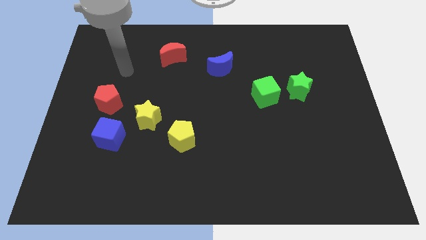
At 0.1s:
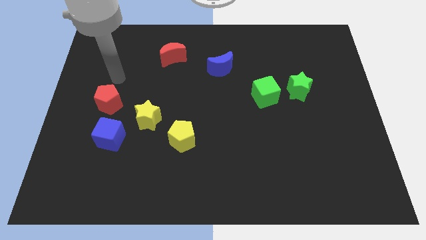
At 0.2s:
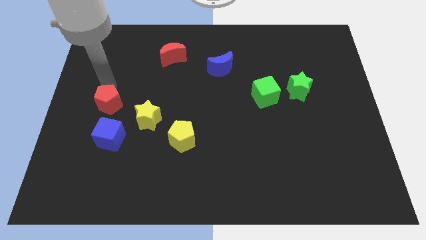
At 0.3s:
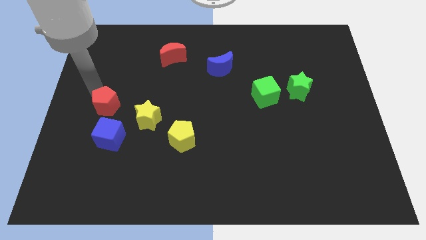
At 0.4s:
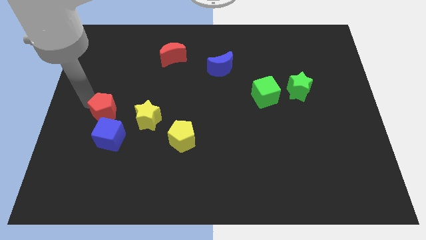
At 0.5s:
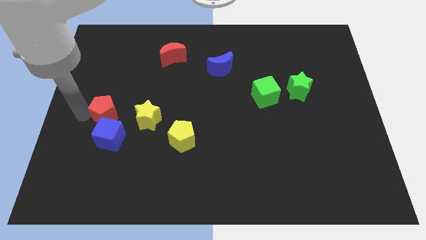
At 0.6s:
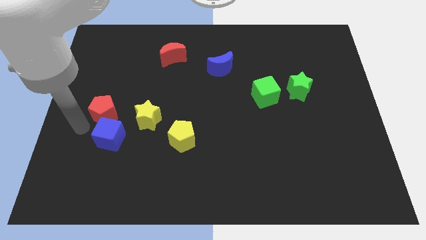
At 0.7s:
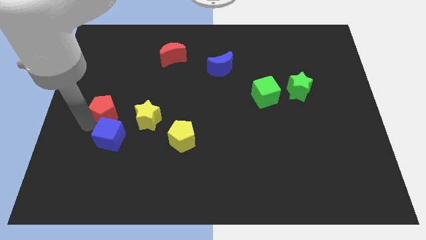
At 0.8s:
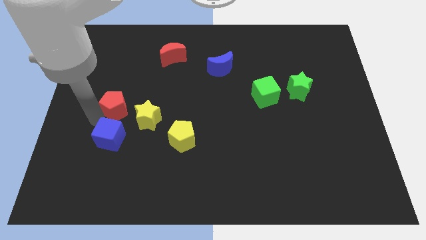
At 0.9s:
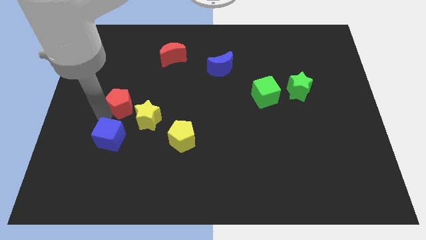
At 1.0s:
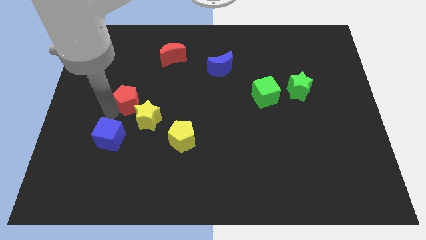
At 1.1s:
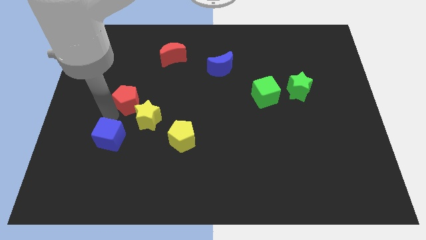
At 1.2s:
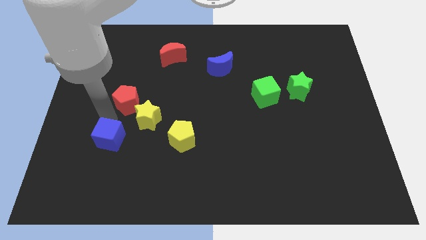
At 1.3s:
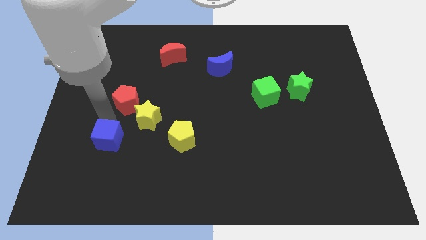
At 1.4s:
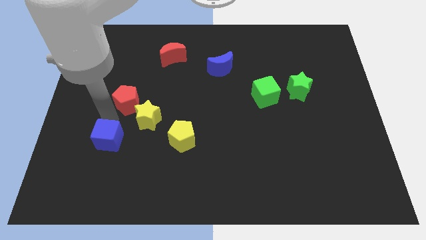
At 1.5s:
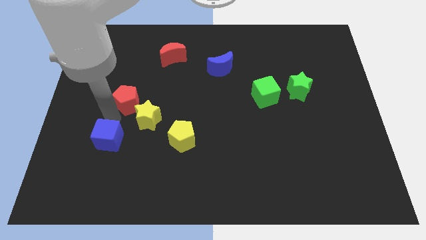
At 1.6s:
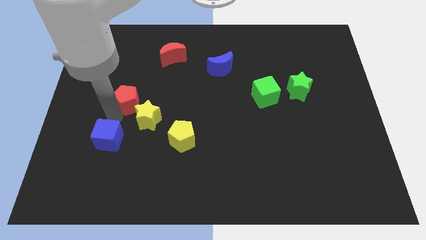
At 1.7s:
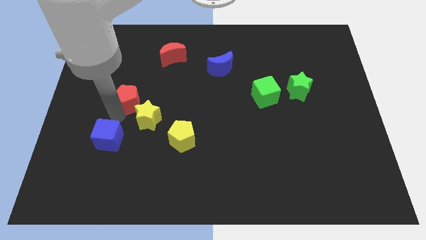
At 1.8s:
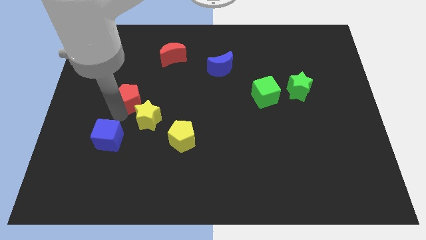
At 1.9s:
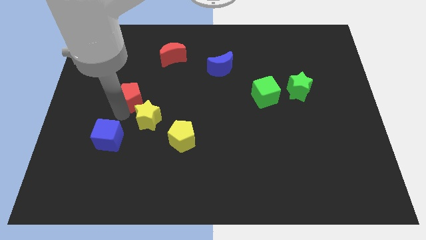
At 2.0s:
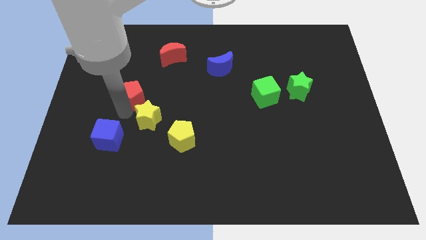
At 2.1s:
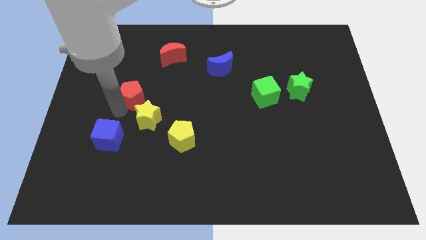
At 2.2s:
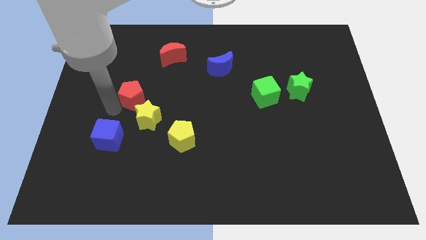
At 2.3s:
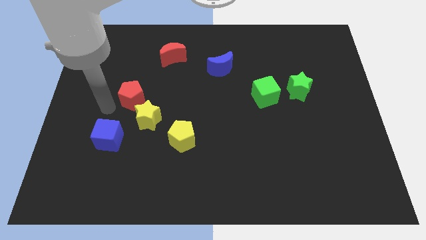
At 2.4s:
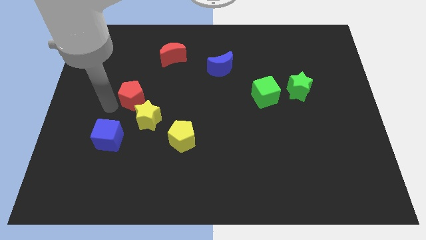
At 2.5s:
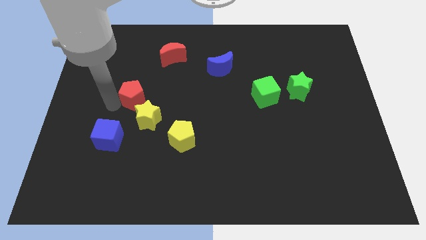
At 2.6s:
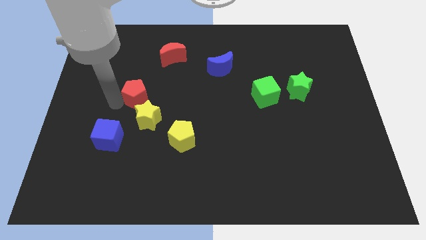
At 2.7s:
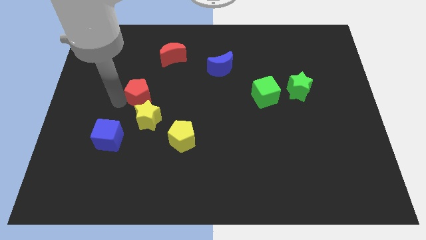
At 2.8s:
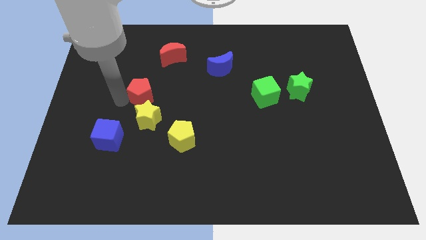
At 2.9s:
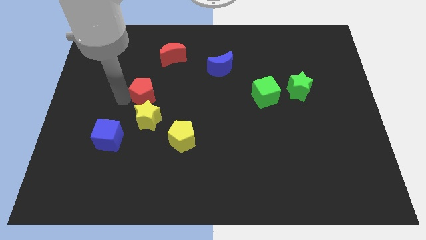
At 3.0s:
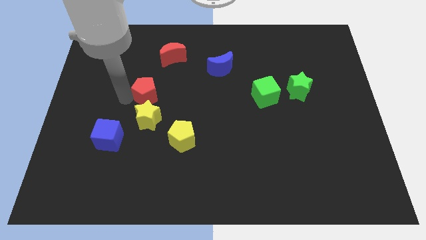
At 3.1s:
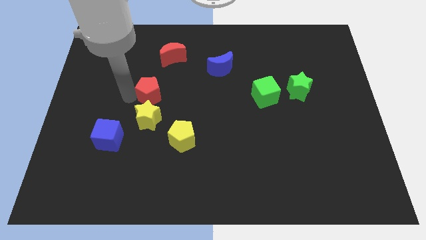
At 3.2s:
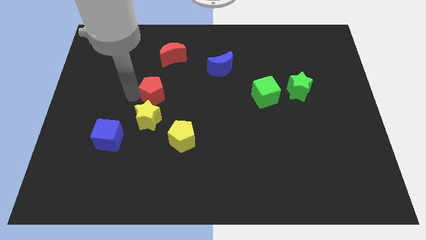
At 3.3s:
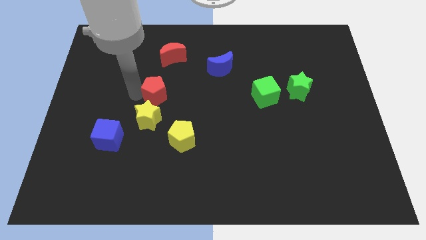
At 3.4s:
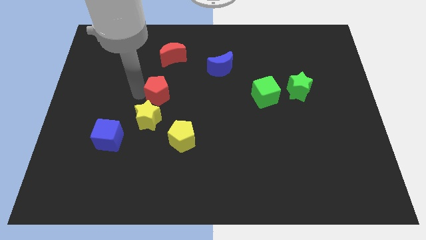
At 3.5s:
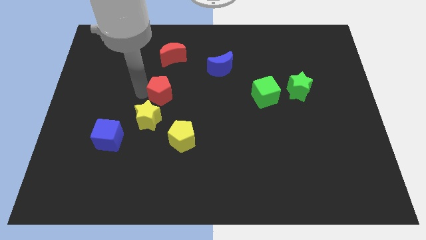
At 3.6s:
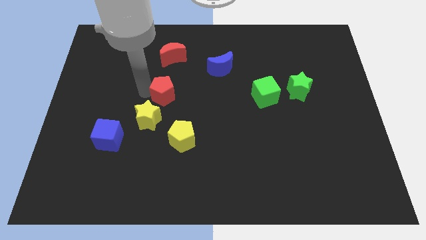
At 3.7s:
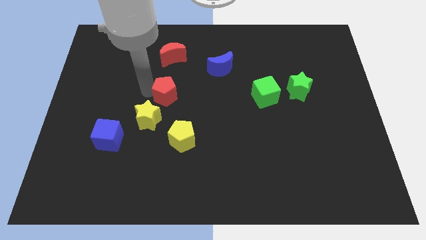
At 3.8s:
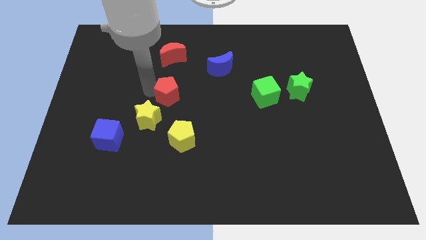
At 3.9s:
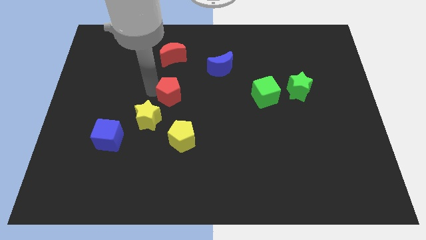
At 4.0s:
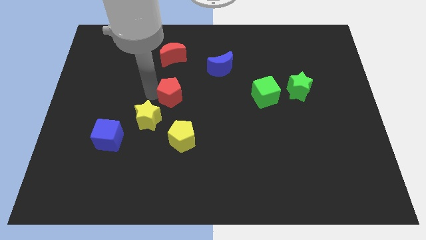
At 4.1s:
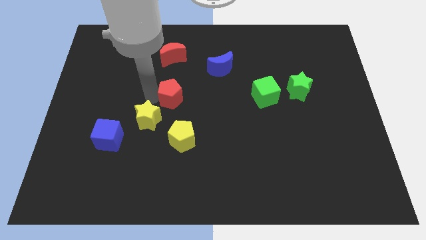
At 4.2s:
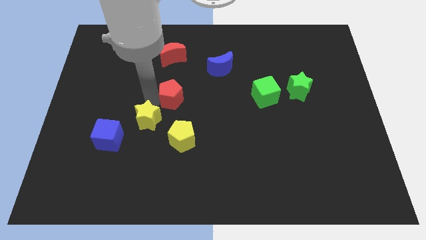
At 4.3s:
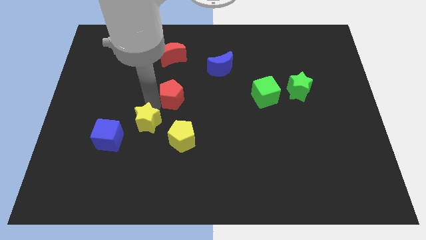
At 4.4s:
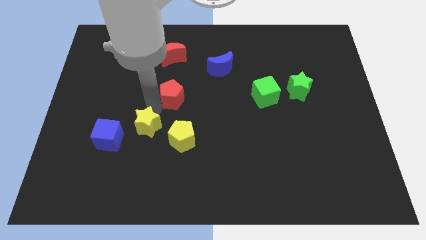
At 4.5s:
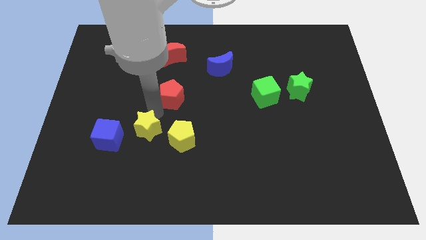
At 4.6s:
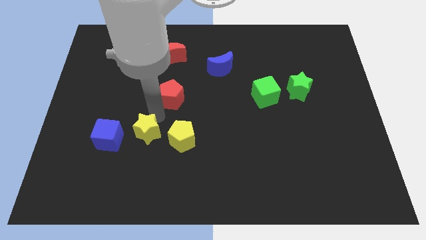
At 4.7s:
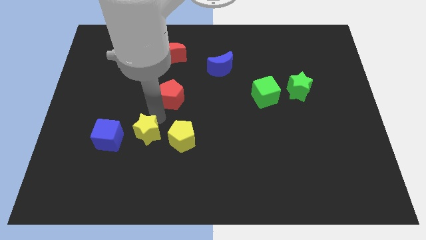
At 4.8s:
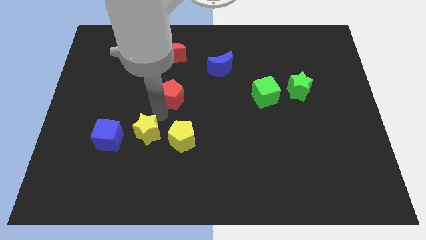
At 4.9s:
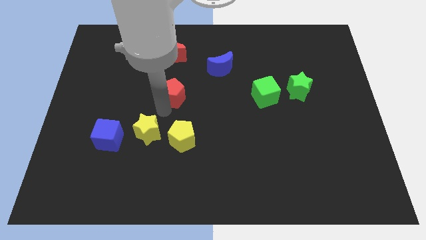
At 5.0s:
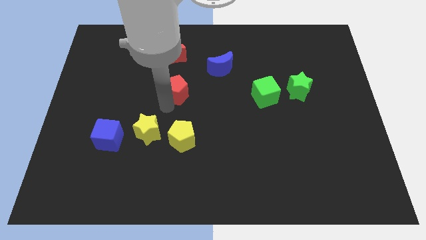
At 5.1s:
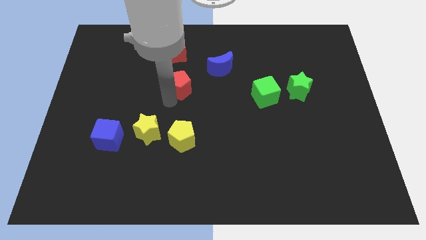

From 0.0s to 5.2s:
move the red pentagon diagonally down and to the left of the blue moon

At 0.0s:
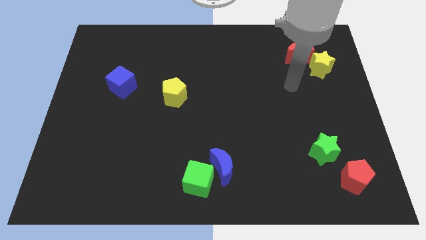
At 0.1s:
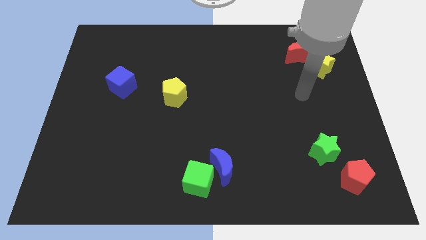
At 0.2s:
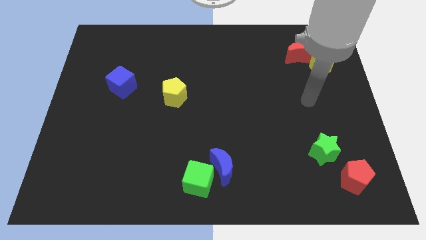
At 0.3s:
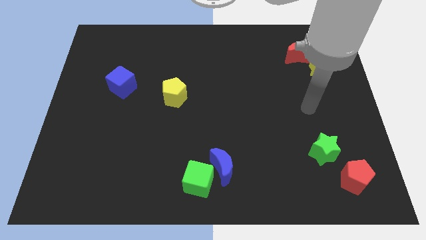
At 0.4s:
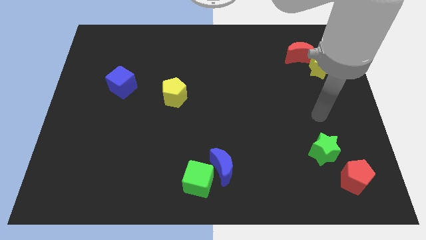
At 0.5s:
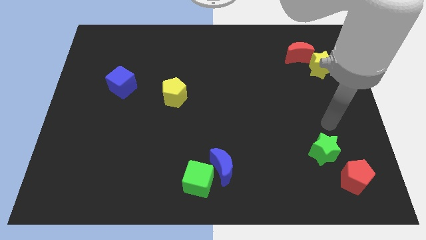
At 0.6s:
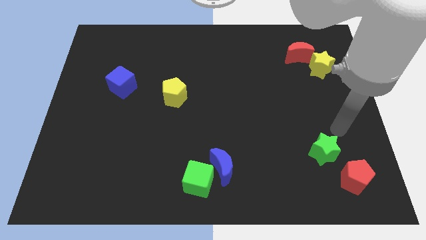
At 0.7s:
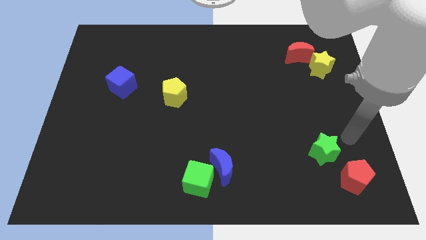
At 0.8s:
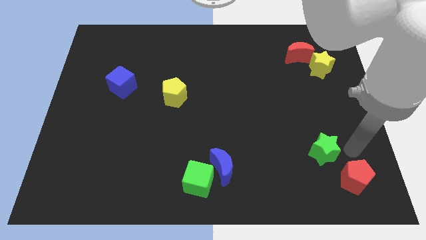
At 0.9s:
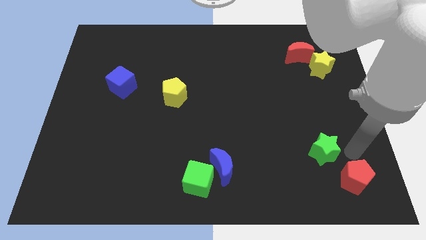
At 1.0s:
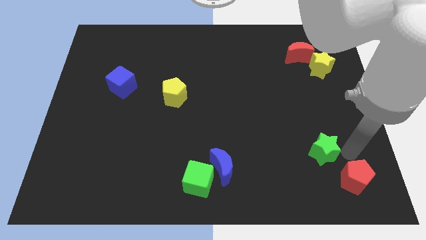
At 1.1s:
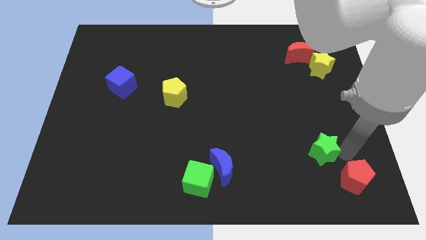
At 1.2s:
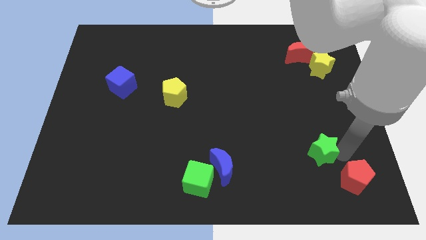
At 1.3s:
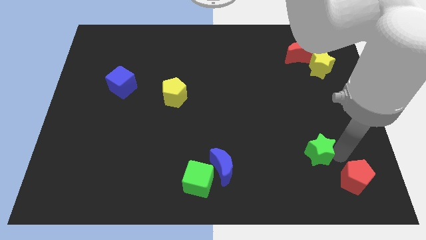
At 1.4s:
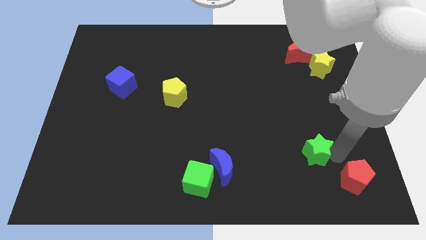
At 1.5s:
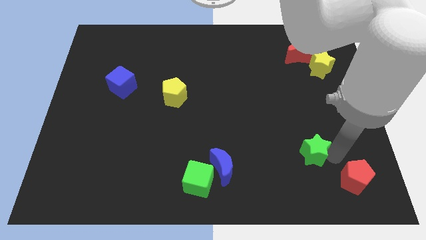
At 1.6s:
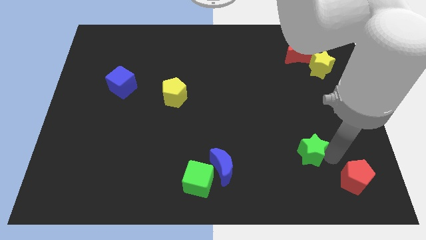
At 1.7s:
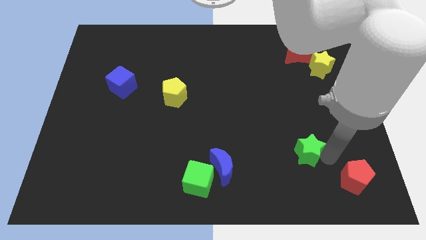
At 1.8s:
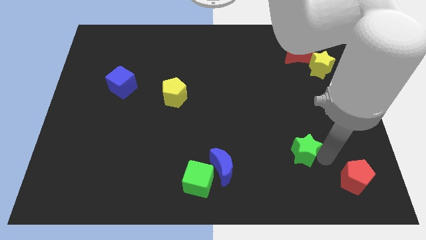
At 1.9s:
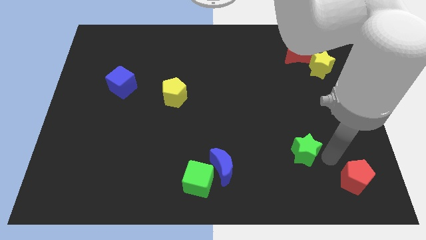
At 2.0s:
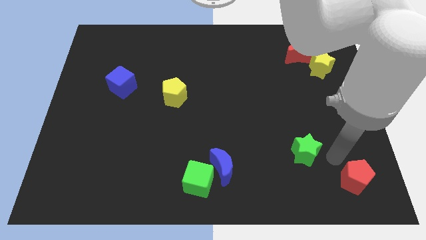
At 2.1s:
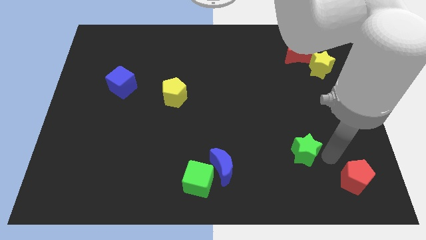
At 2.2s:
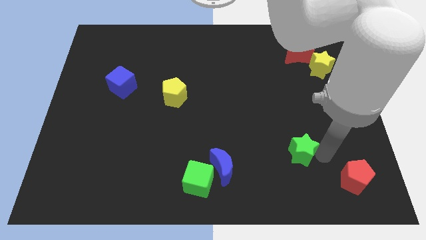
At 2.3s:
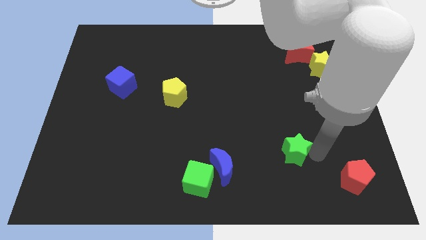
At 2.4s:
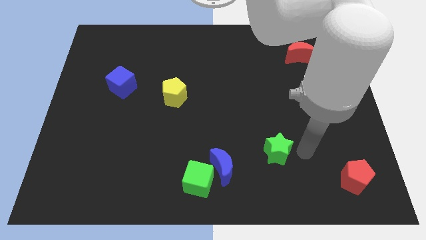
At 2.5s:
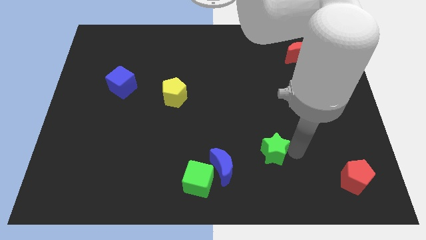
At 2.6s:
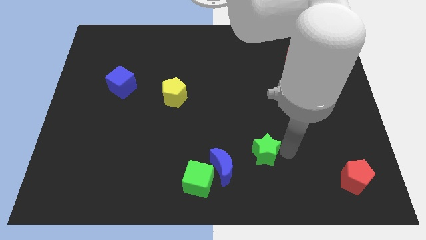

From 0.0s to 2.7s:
move the green star diagonally up and to the right of the blue moon

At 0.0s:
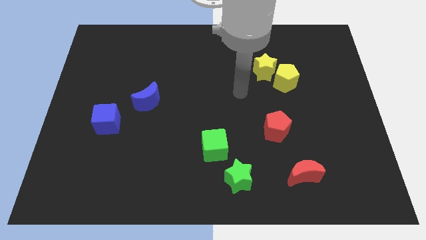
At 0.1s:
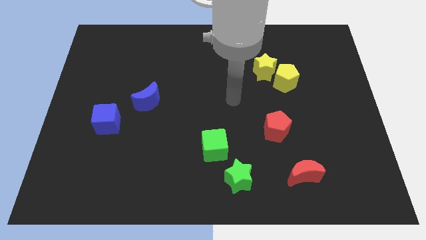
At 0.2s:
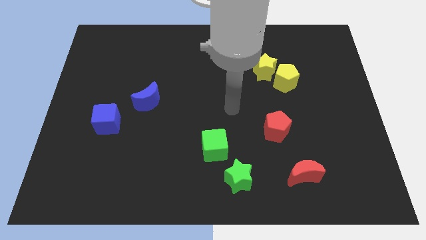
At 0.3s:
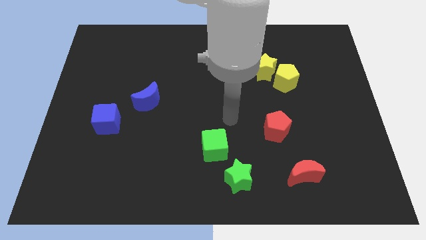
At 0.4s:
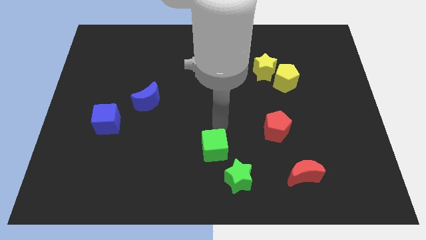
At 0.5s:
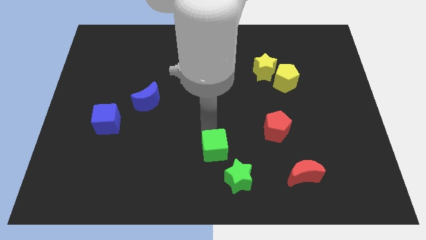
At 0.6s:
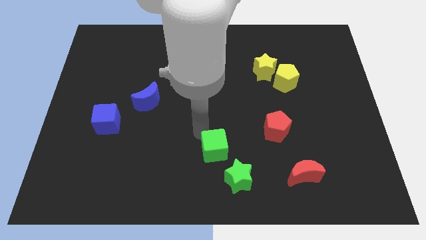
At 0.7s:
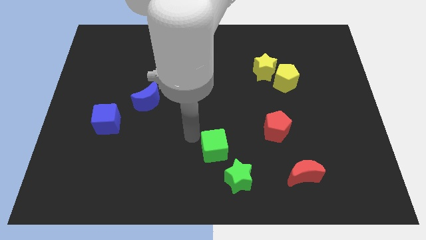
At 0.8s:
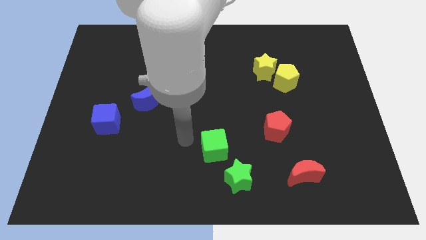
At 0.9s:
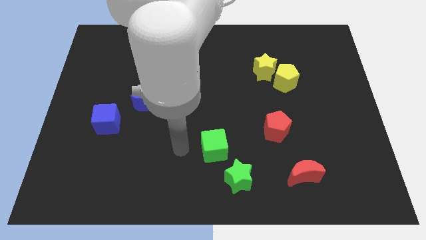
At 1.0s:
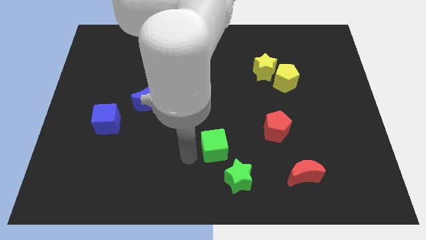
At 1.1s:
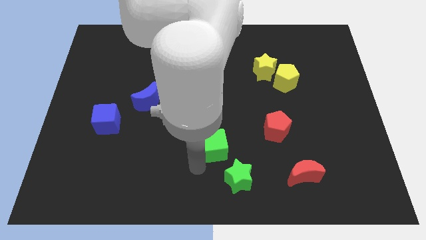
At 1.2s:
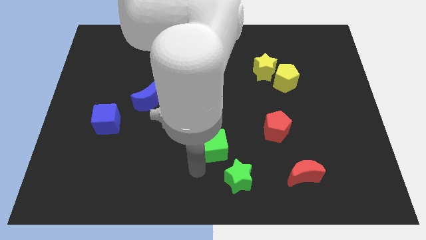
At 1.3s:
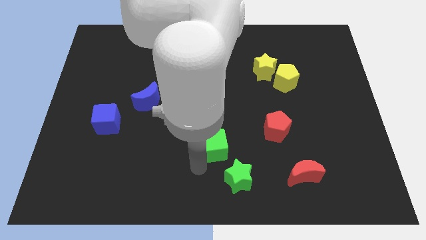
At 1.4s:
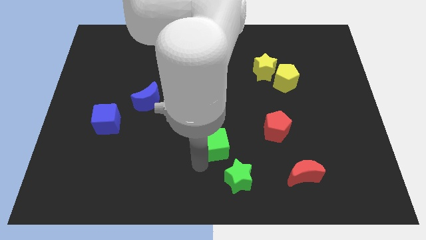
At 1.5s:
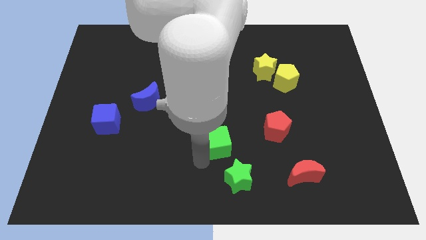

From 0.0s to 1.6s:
slide the green cube to the left side of the red pentagon
